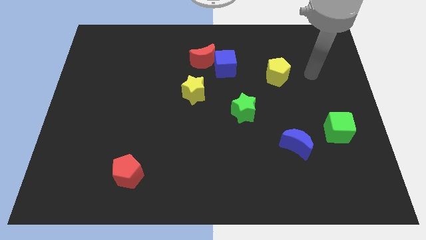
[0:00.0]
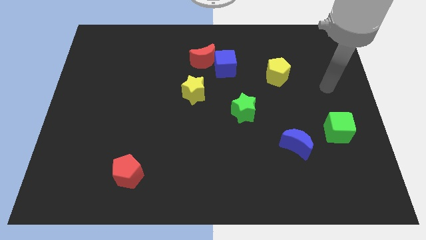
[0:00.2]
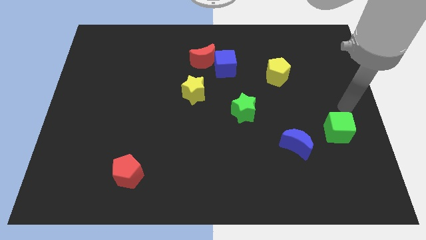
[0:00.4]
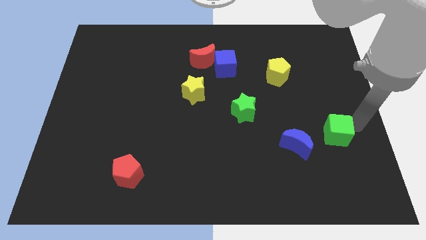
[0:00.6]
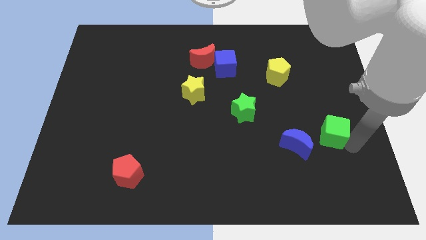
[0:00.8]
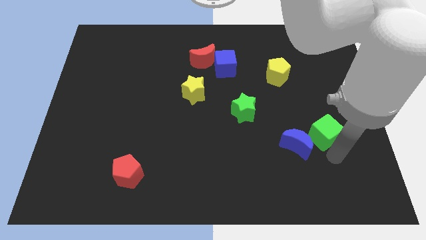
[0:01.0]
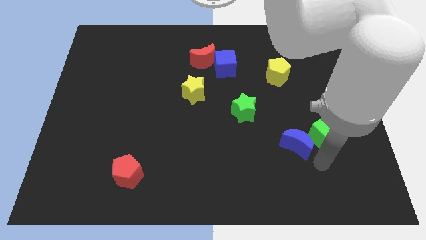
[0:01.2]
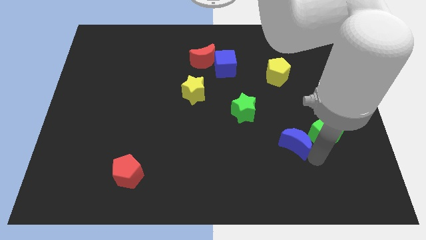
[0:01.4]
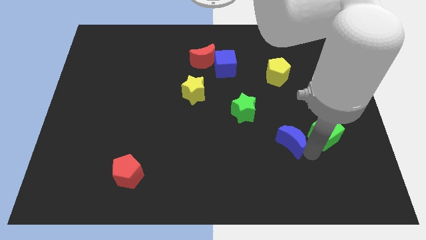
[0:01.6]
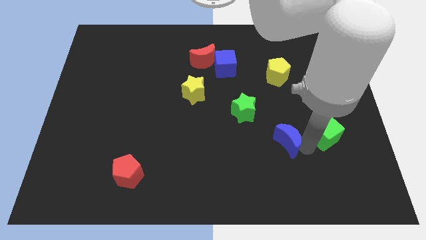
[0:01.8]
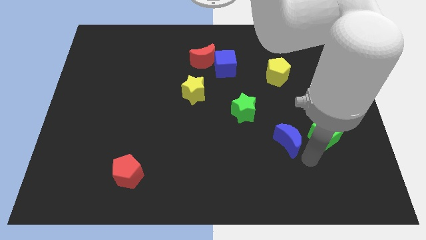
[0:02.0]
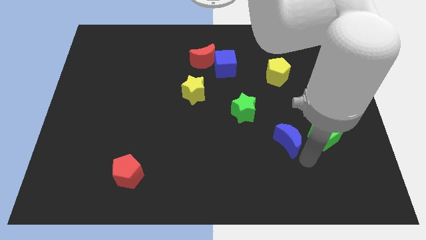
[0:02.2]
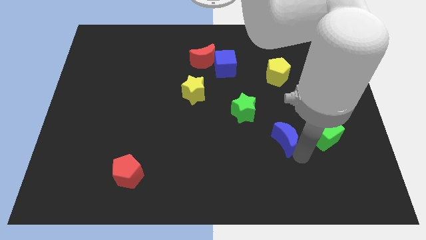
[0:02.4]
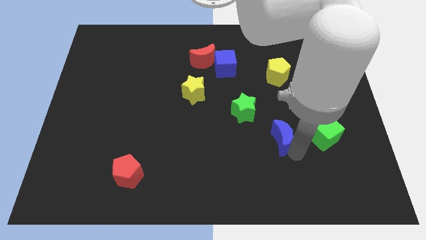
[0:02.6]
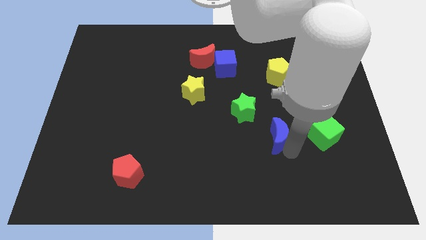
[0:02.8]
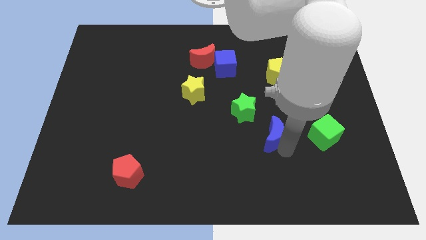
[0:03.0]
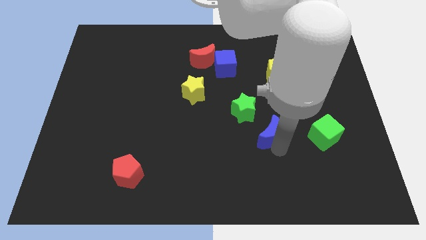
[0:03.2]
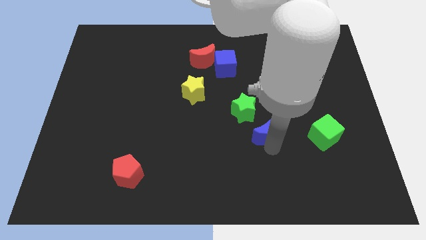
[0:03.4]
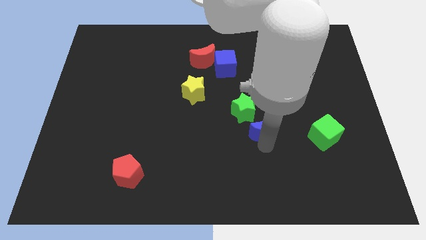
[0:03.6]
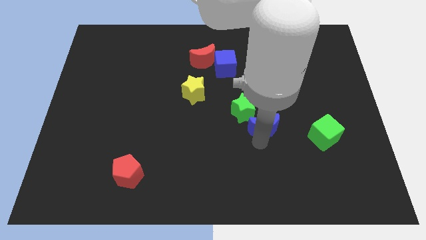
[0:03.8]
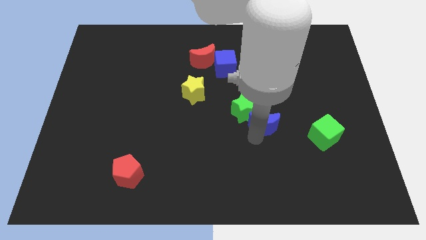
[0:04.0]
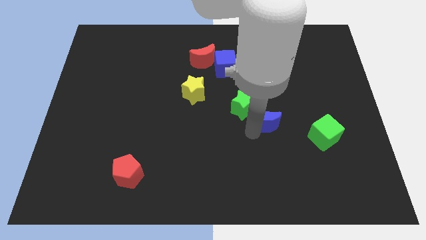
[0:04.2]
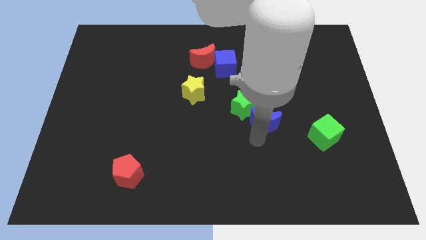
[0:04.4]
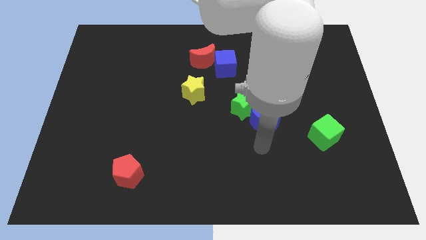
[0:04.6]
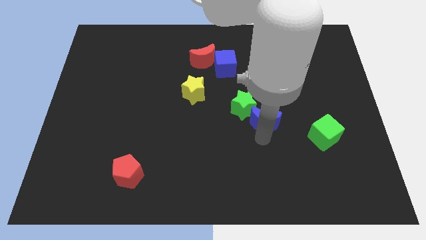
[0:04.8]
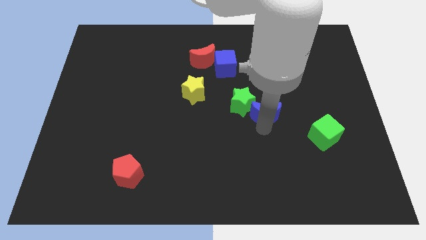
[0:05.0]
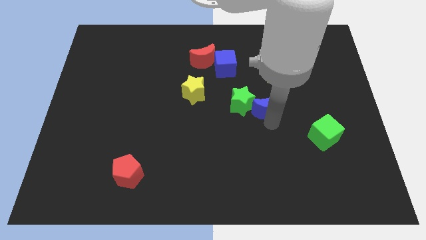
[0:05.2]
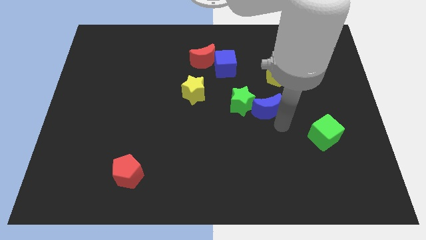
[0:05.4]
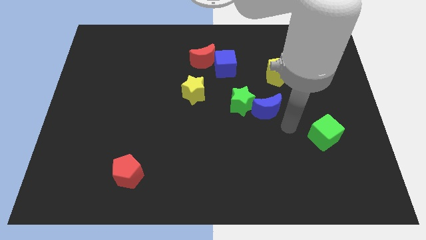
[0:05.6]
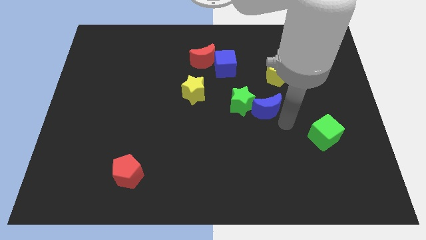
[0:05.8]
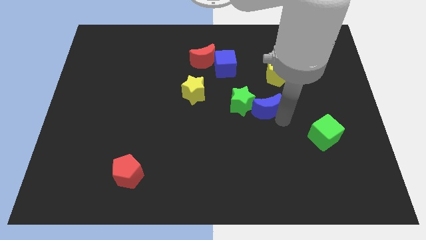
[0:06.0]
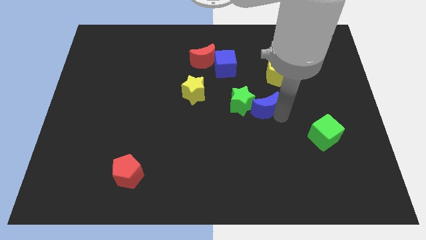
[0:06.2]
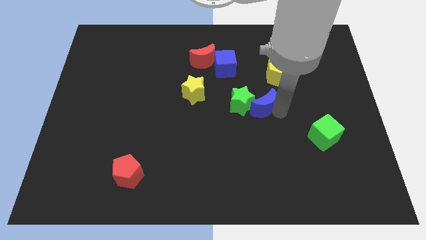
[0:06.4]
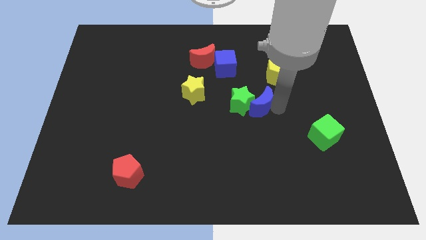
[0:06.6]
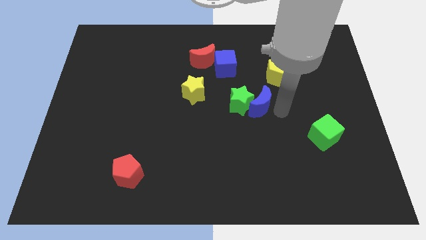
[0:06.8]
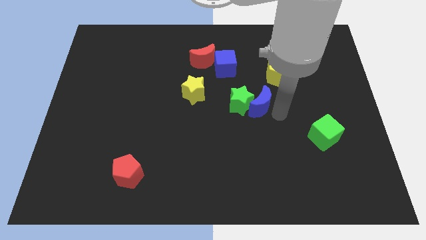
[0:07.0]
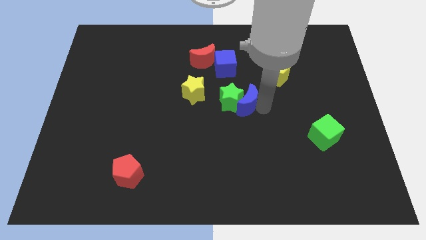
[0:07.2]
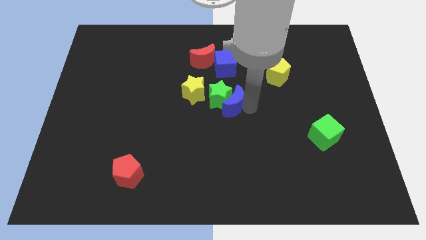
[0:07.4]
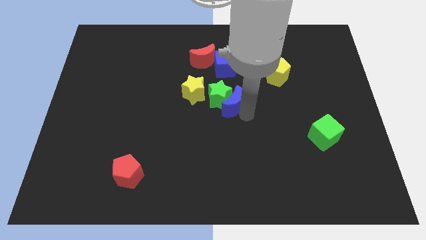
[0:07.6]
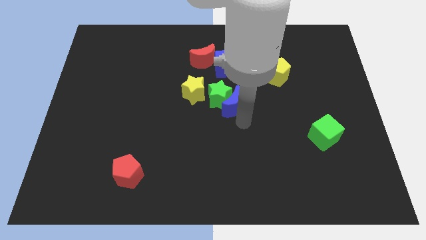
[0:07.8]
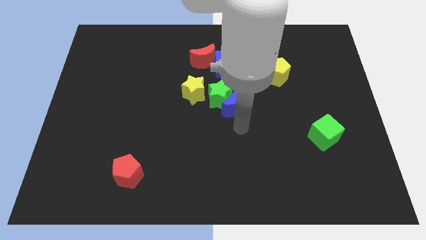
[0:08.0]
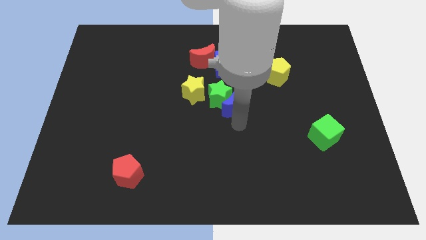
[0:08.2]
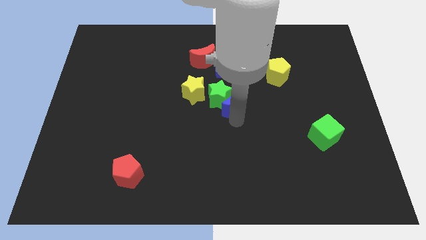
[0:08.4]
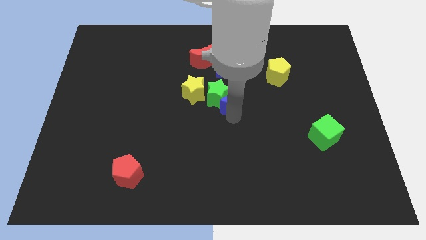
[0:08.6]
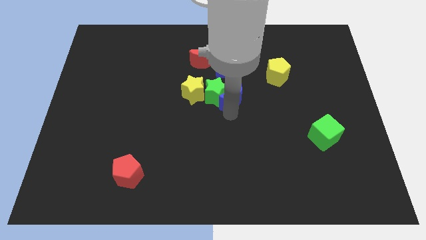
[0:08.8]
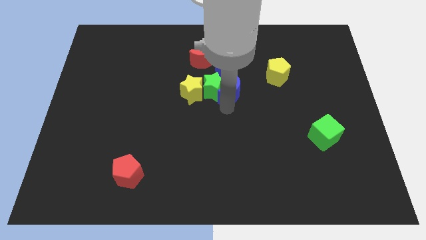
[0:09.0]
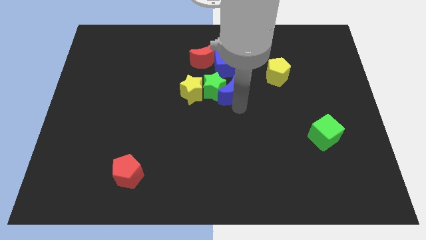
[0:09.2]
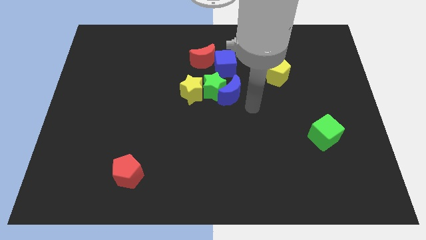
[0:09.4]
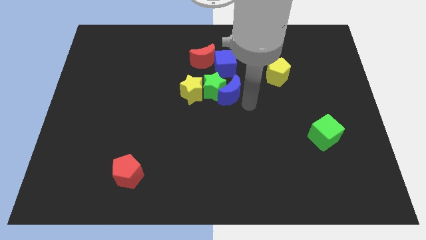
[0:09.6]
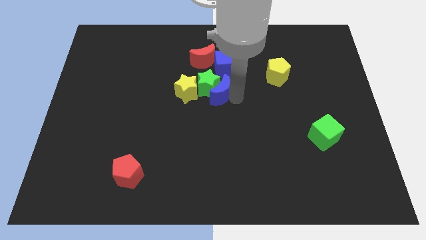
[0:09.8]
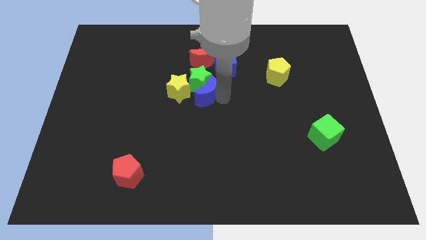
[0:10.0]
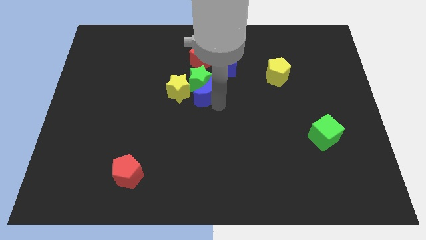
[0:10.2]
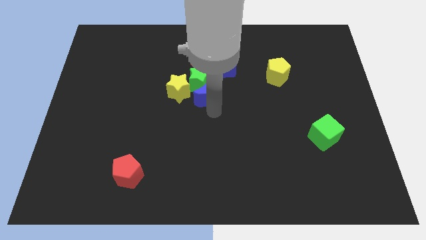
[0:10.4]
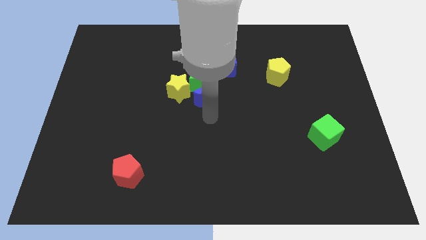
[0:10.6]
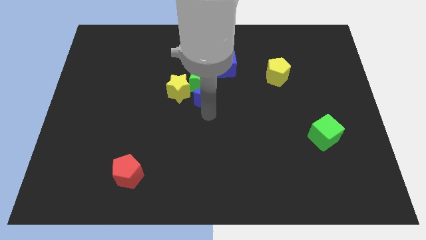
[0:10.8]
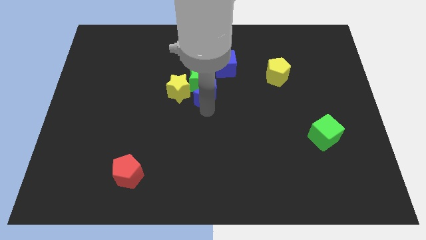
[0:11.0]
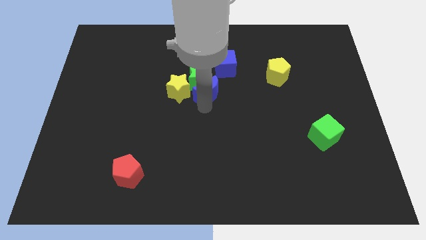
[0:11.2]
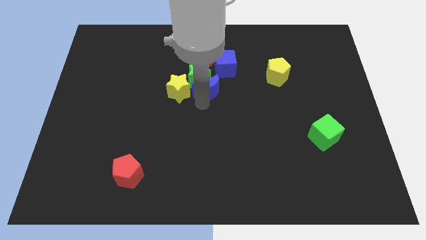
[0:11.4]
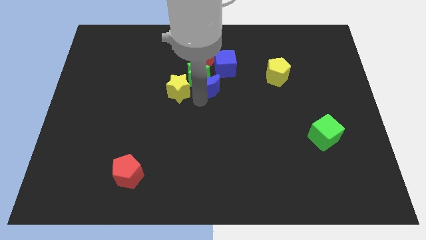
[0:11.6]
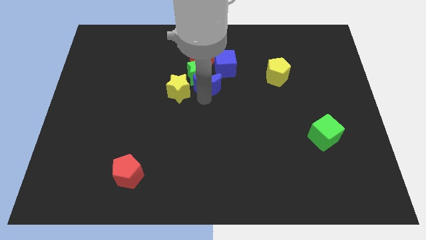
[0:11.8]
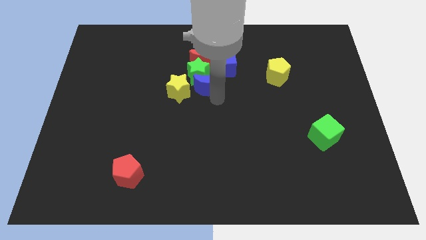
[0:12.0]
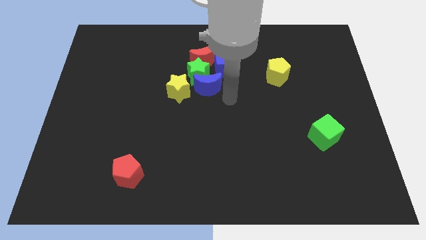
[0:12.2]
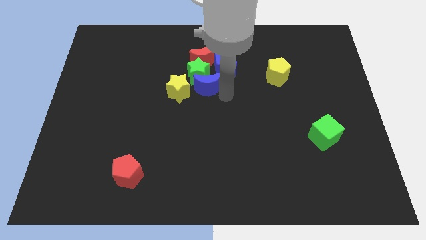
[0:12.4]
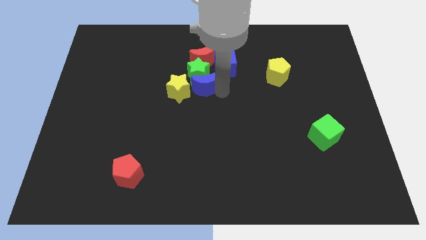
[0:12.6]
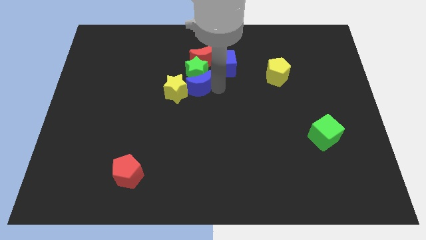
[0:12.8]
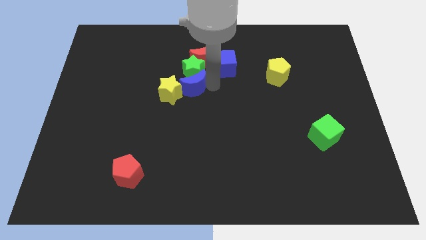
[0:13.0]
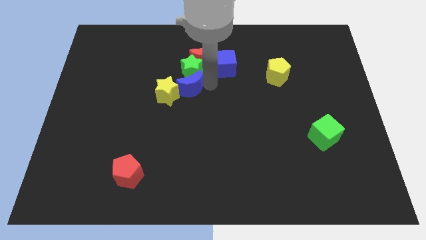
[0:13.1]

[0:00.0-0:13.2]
slide the blue moon to the bottom left side of the red moon
